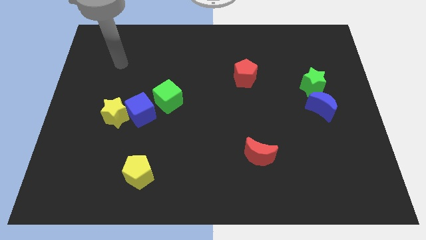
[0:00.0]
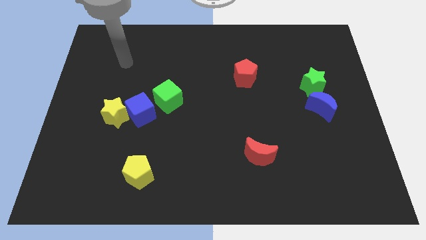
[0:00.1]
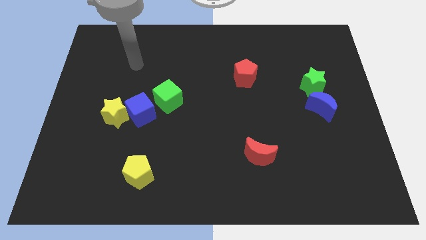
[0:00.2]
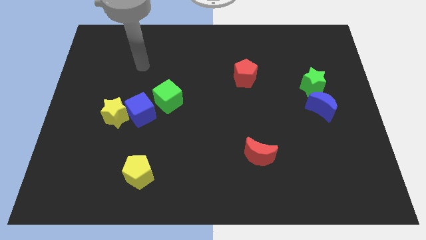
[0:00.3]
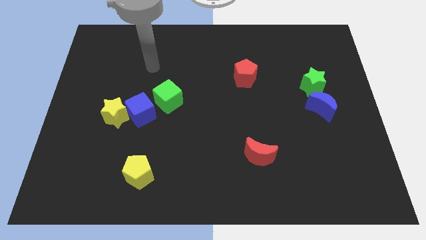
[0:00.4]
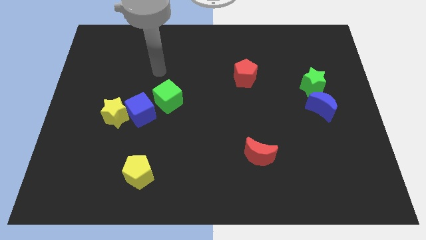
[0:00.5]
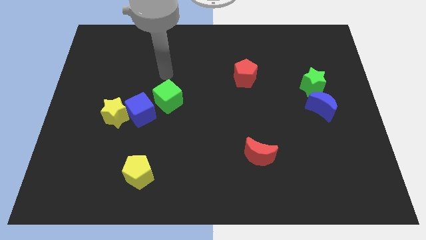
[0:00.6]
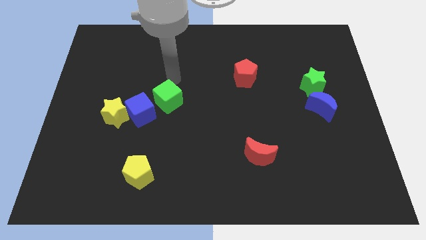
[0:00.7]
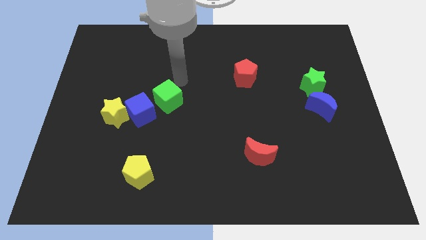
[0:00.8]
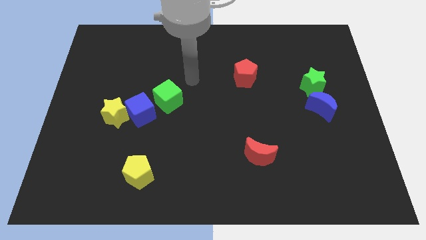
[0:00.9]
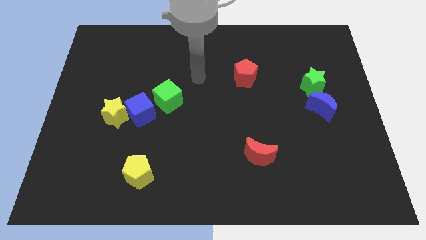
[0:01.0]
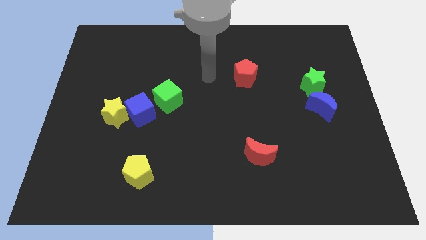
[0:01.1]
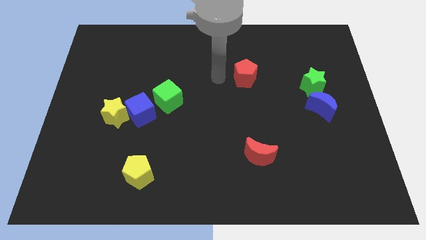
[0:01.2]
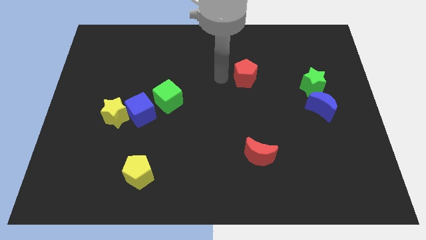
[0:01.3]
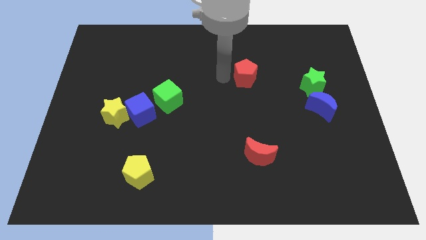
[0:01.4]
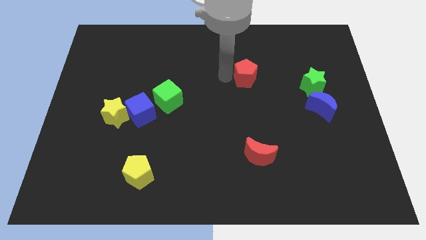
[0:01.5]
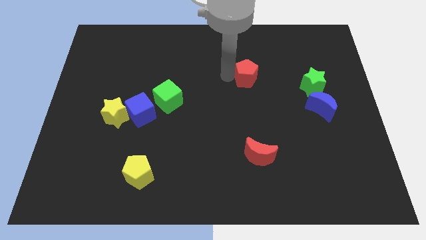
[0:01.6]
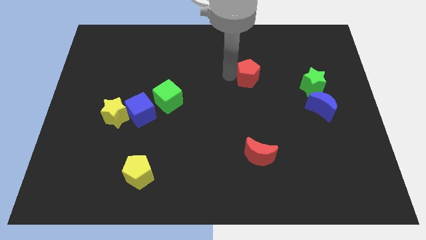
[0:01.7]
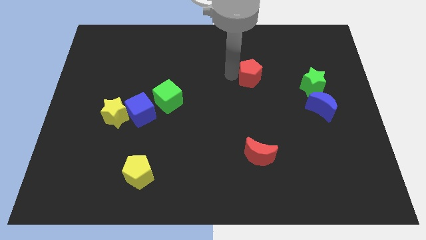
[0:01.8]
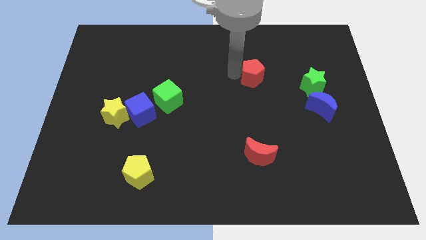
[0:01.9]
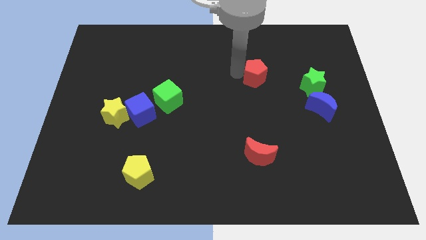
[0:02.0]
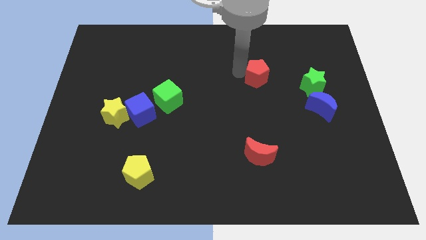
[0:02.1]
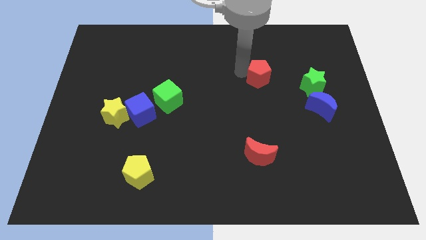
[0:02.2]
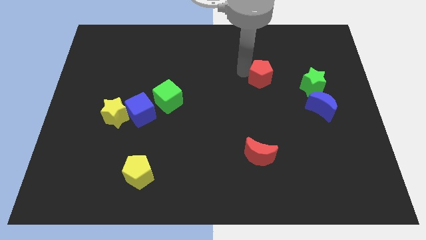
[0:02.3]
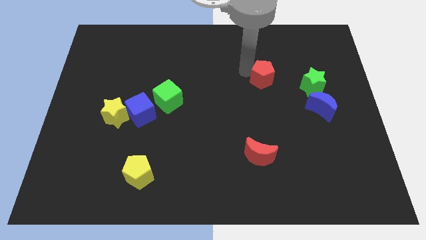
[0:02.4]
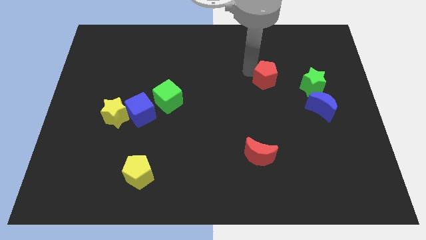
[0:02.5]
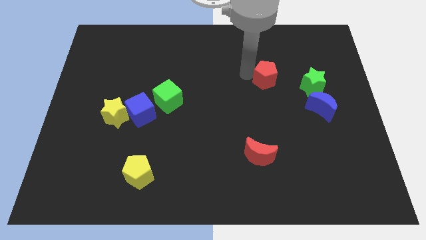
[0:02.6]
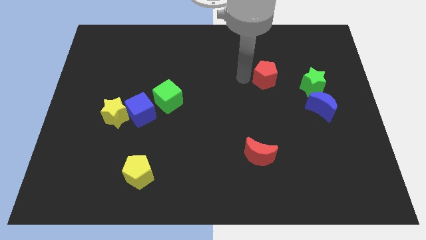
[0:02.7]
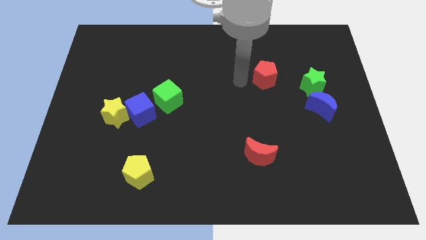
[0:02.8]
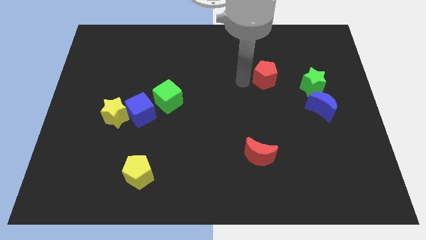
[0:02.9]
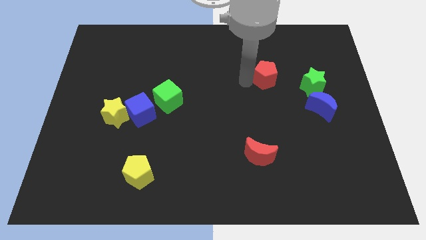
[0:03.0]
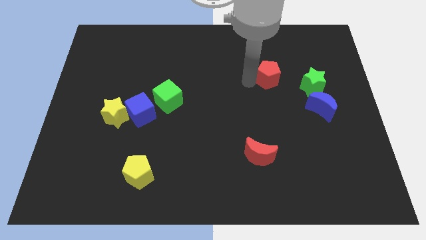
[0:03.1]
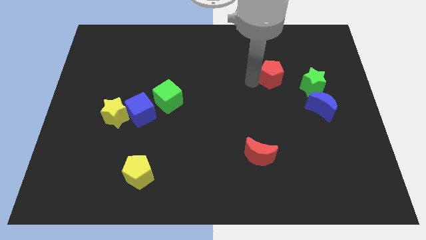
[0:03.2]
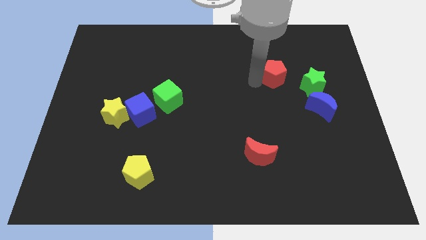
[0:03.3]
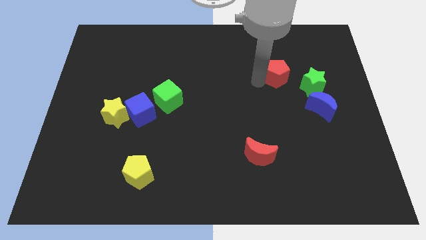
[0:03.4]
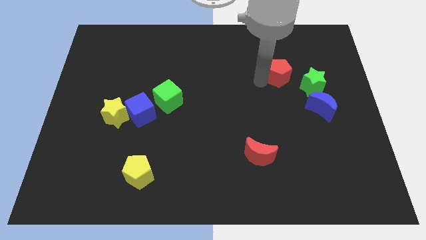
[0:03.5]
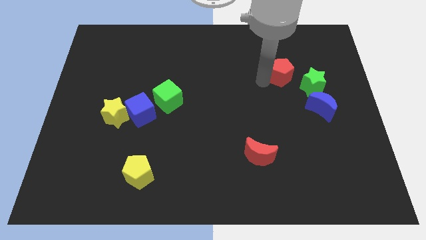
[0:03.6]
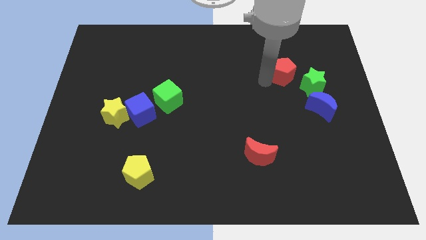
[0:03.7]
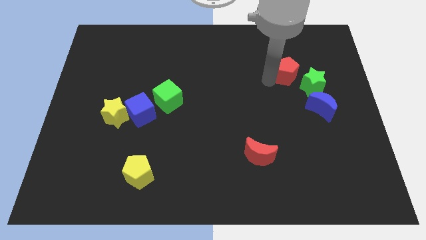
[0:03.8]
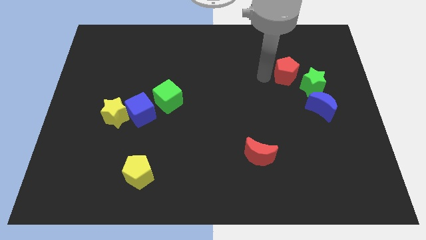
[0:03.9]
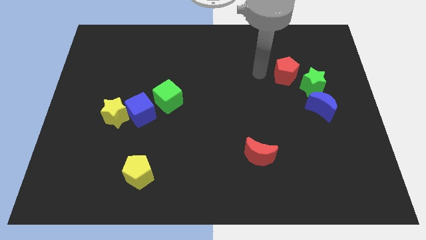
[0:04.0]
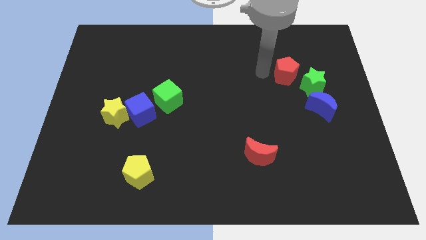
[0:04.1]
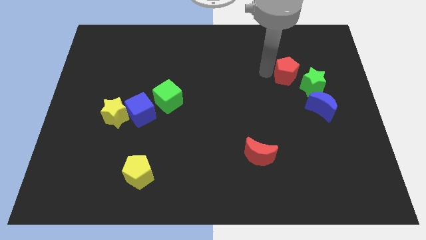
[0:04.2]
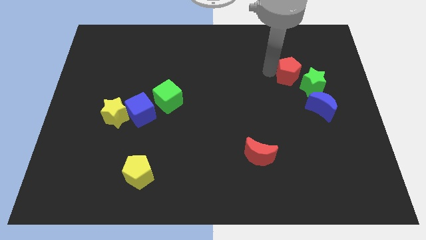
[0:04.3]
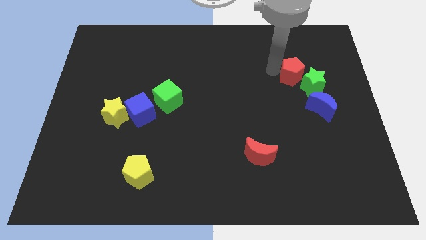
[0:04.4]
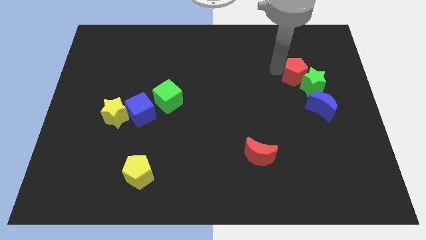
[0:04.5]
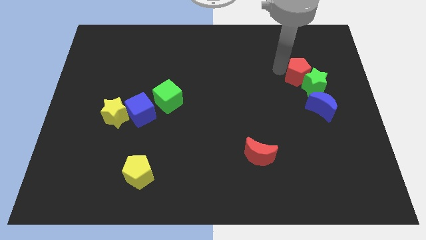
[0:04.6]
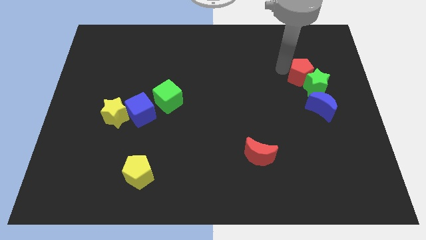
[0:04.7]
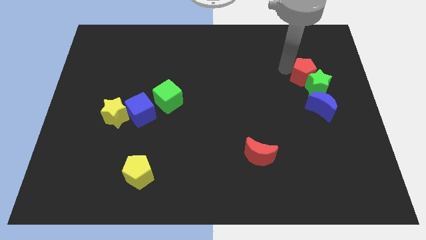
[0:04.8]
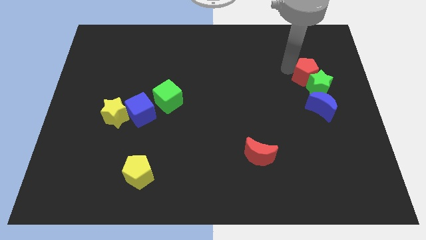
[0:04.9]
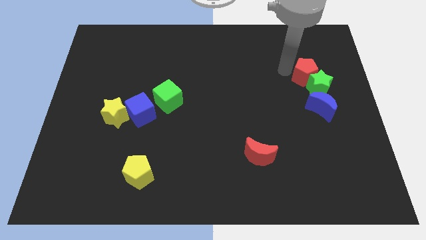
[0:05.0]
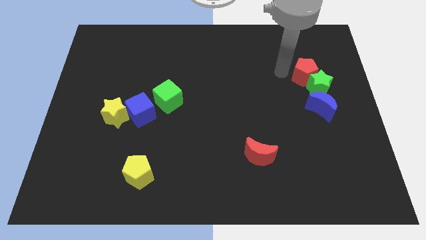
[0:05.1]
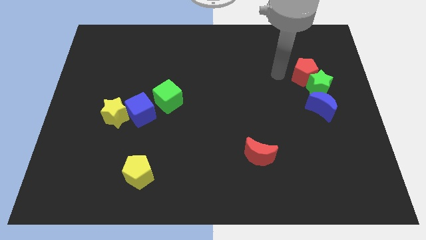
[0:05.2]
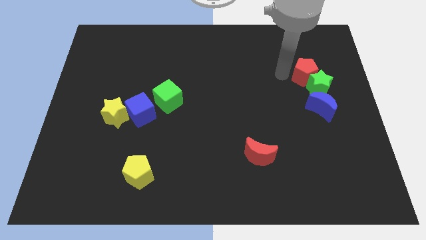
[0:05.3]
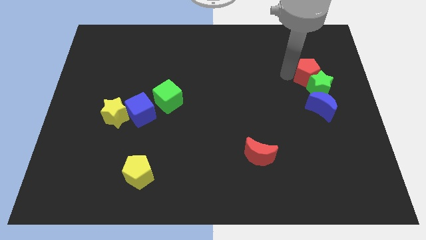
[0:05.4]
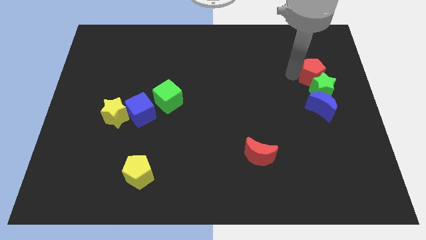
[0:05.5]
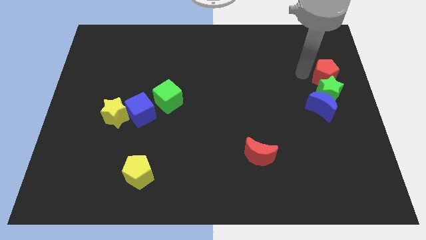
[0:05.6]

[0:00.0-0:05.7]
put the red pentagon to the right side

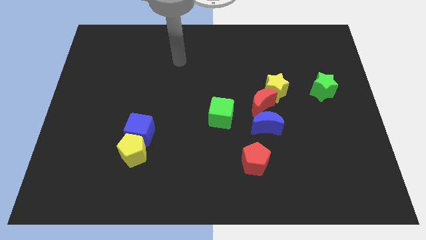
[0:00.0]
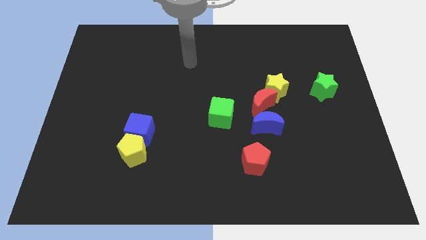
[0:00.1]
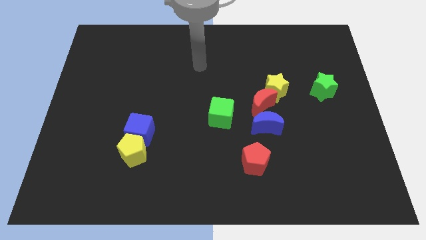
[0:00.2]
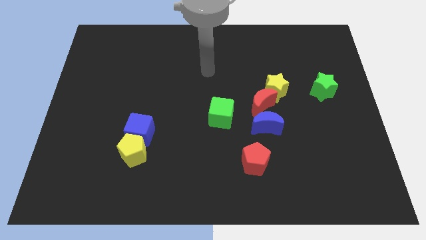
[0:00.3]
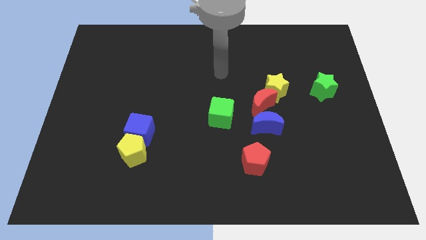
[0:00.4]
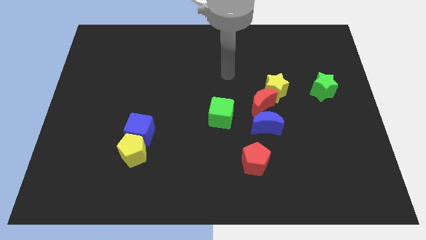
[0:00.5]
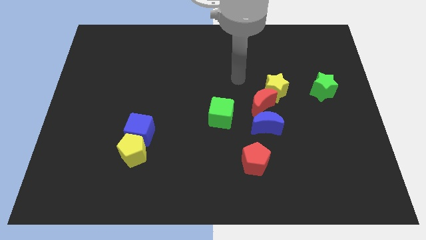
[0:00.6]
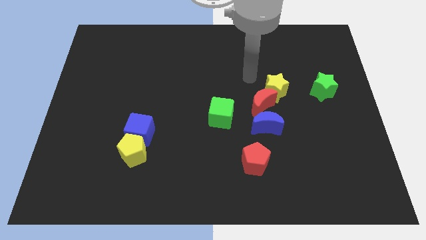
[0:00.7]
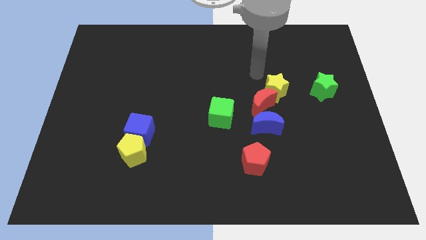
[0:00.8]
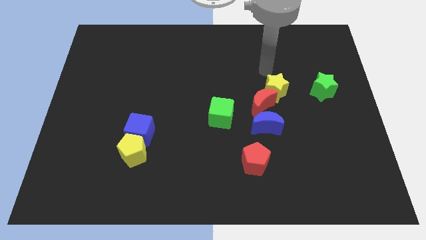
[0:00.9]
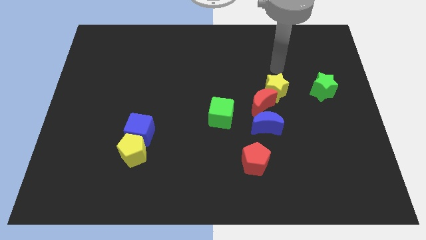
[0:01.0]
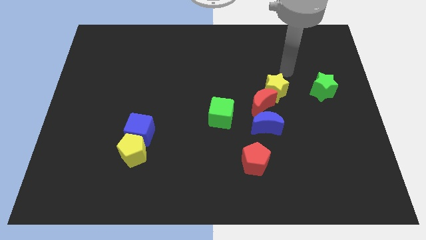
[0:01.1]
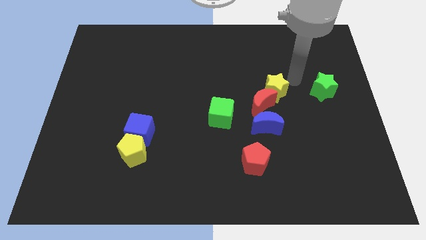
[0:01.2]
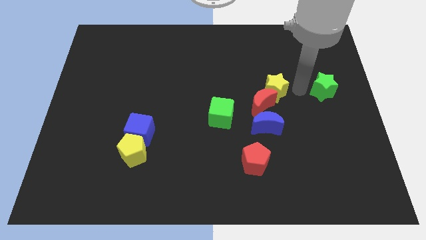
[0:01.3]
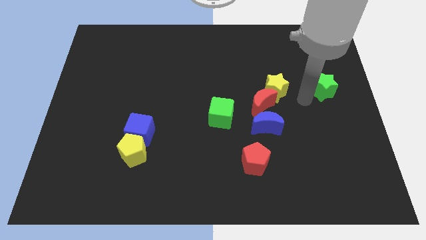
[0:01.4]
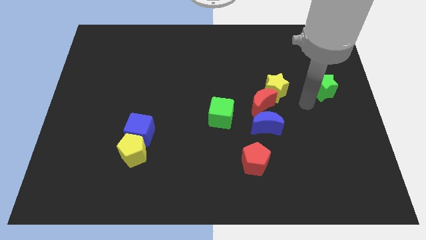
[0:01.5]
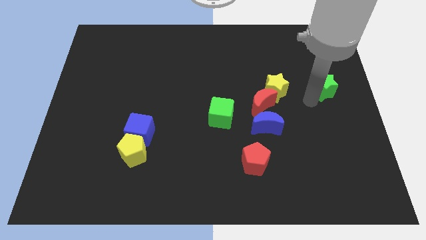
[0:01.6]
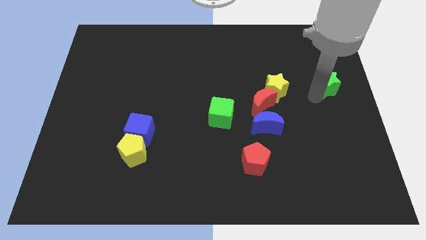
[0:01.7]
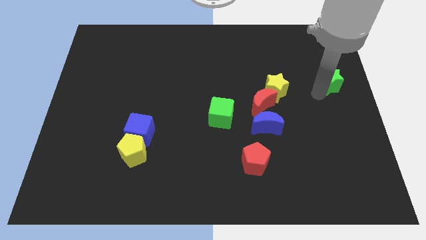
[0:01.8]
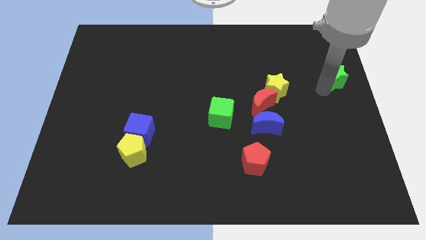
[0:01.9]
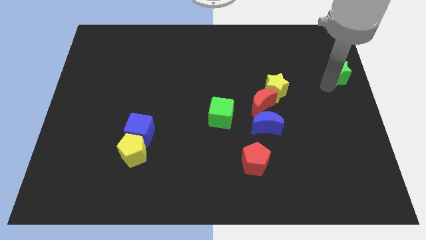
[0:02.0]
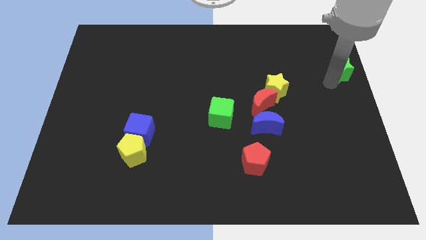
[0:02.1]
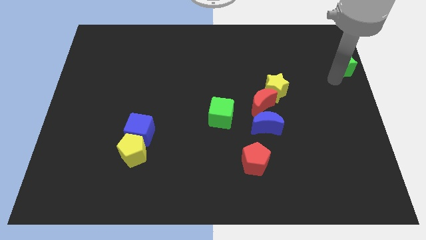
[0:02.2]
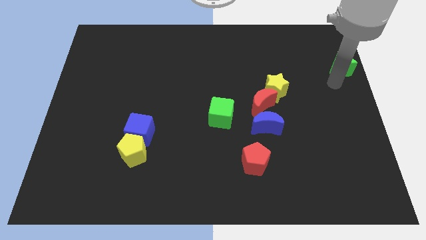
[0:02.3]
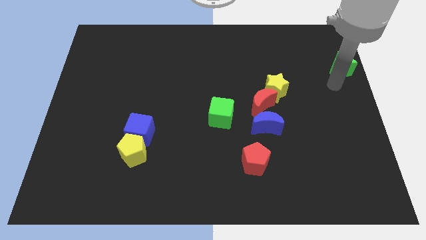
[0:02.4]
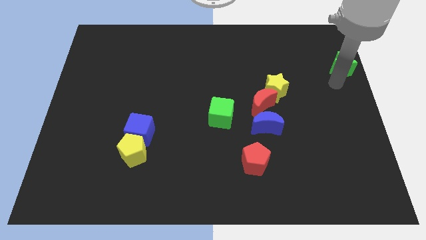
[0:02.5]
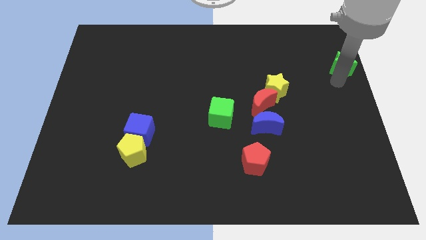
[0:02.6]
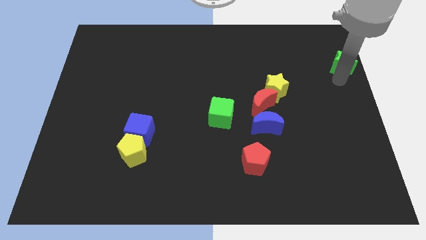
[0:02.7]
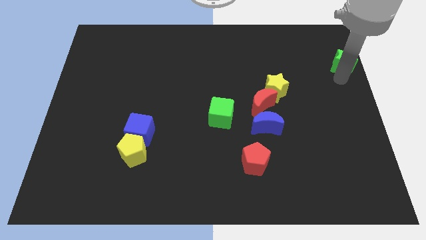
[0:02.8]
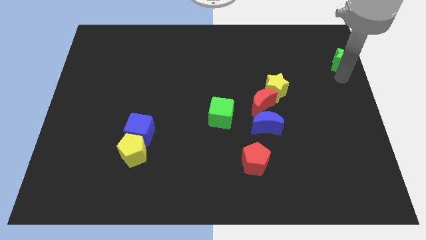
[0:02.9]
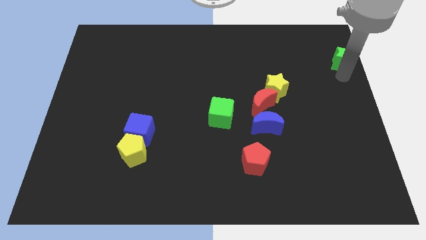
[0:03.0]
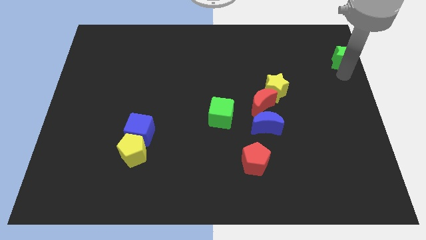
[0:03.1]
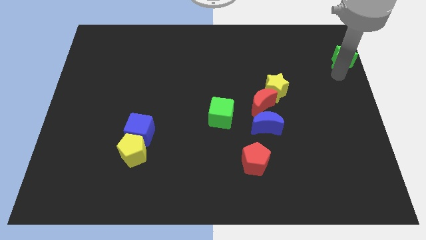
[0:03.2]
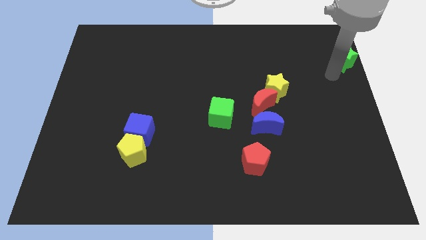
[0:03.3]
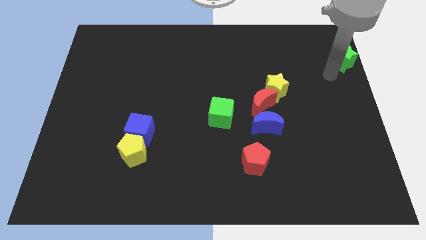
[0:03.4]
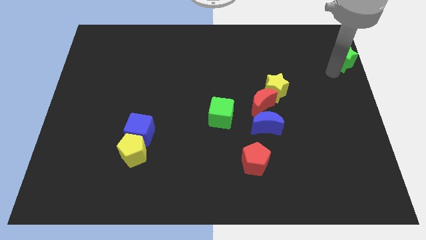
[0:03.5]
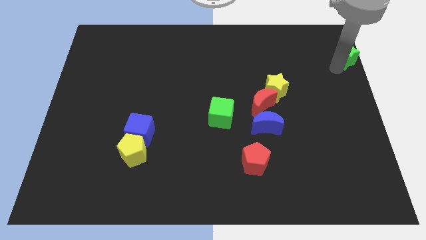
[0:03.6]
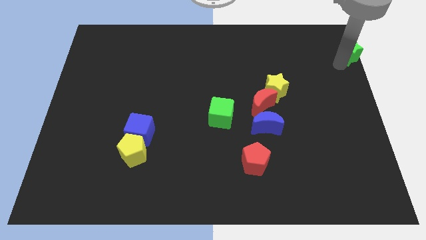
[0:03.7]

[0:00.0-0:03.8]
put the green star to the top right
